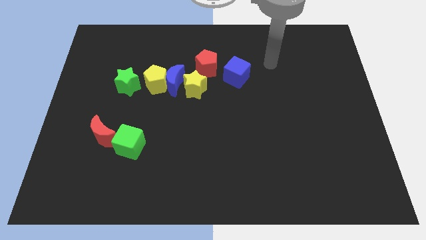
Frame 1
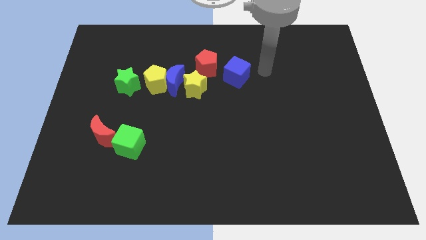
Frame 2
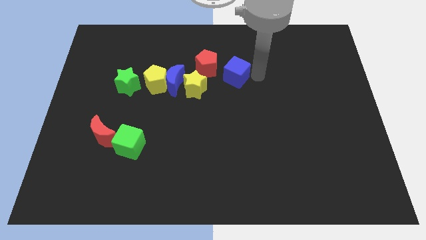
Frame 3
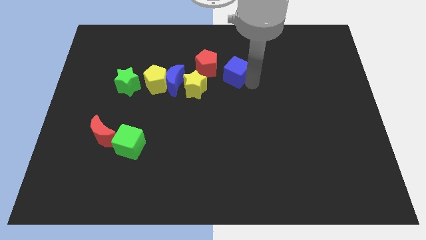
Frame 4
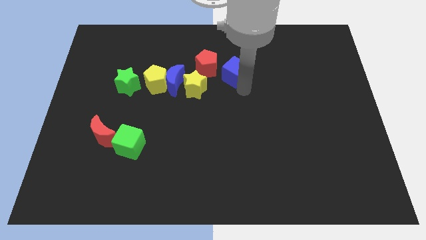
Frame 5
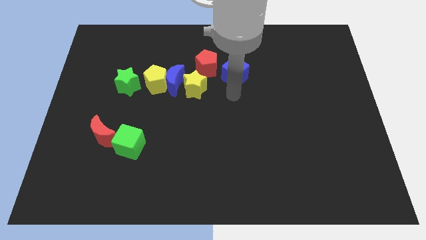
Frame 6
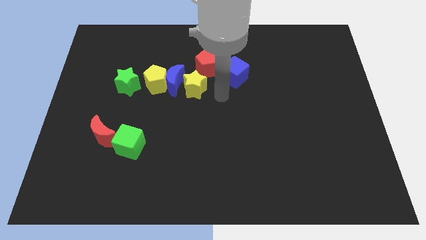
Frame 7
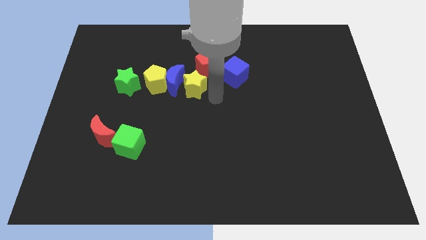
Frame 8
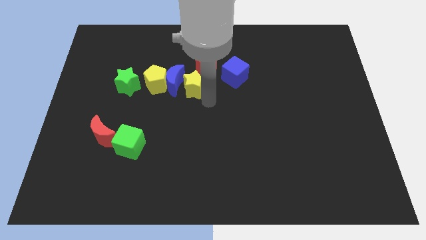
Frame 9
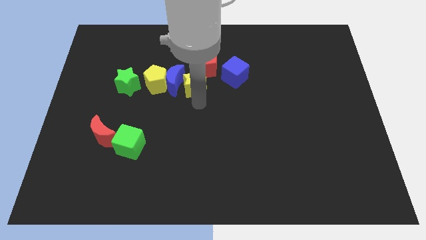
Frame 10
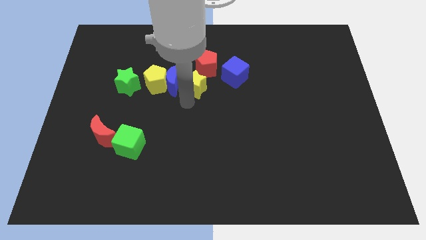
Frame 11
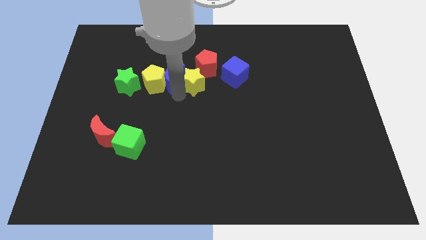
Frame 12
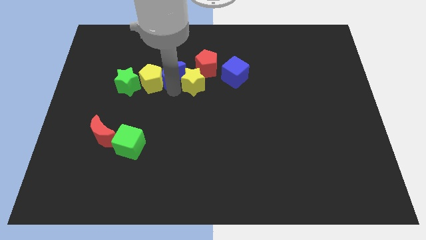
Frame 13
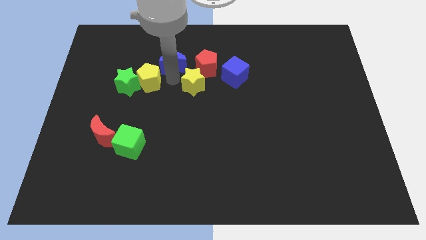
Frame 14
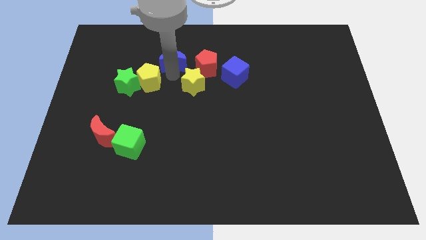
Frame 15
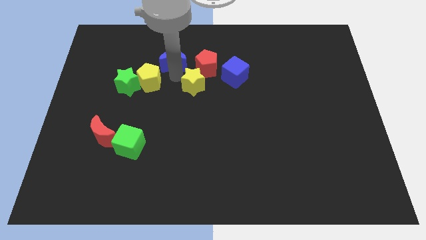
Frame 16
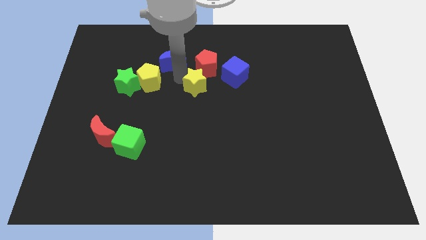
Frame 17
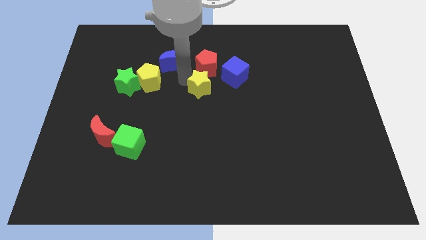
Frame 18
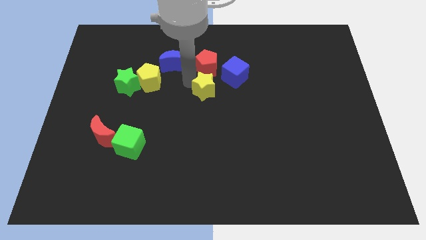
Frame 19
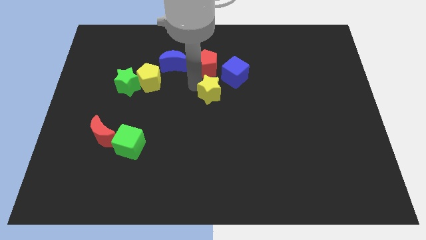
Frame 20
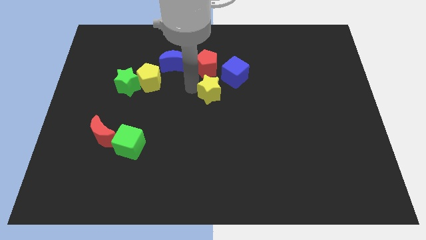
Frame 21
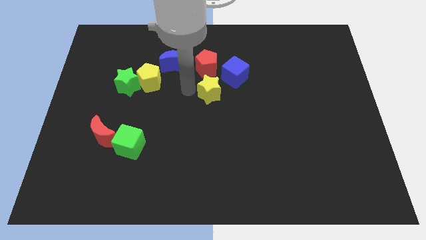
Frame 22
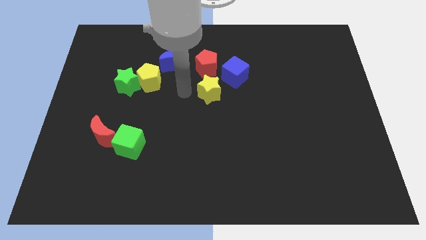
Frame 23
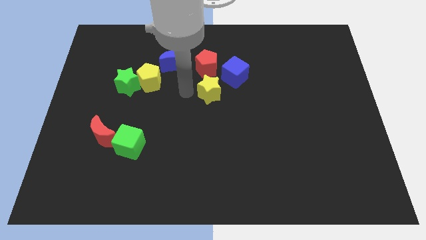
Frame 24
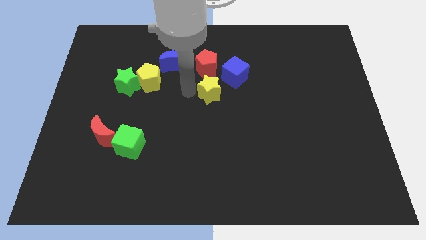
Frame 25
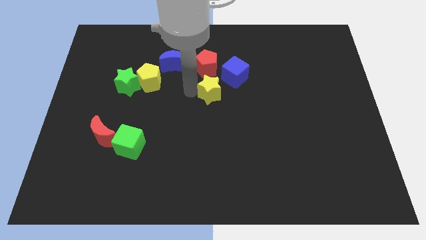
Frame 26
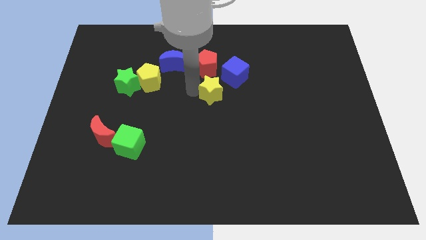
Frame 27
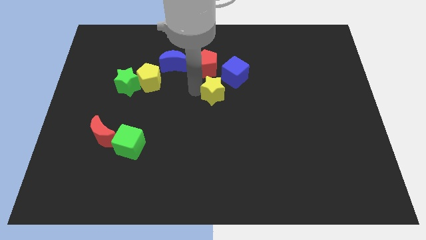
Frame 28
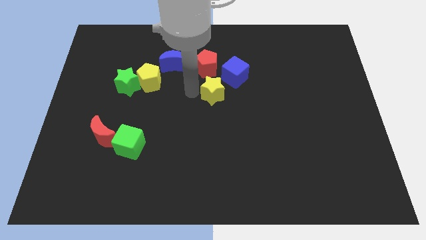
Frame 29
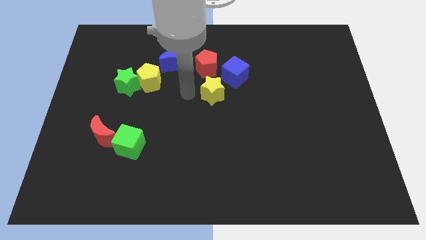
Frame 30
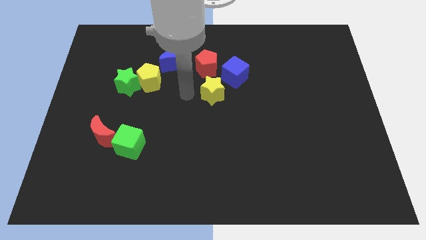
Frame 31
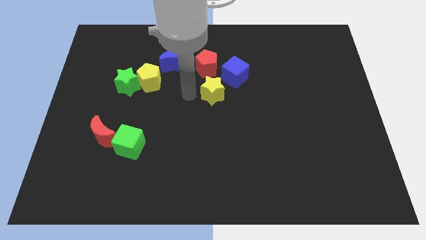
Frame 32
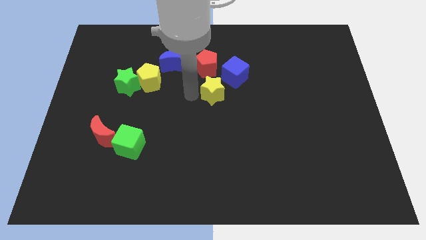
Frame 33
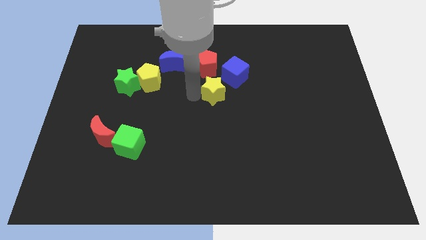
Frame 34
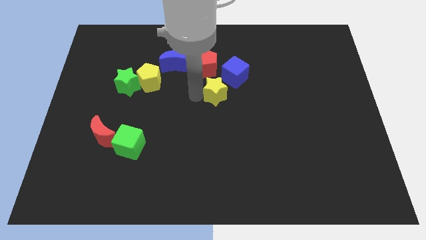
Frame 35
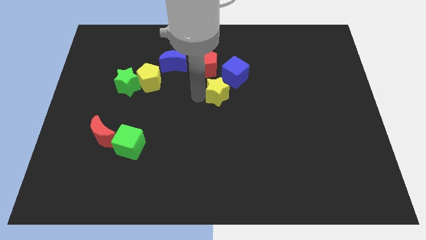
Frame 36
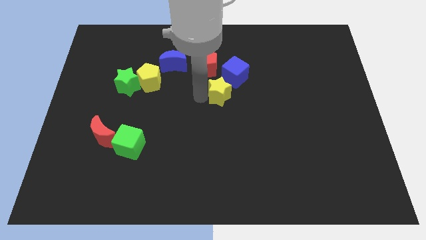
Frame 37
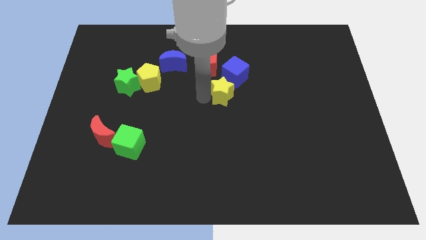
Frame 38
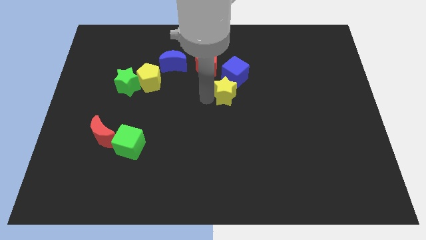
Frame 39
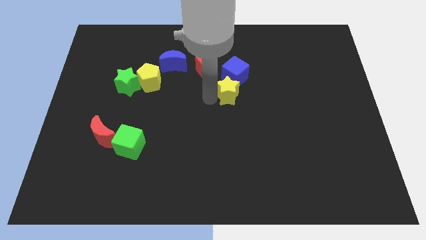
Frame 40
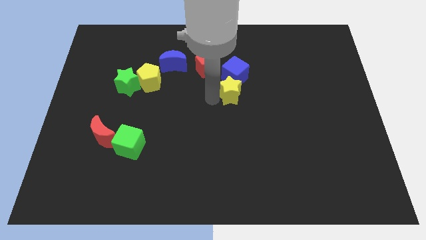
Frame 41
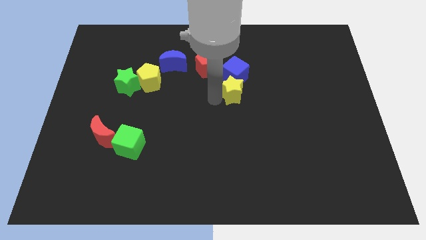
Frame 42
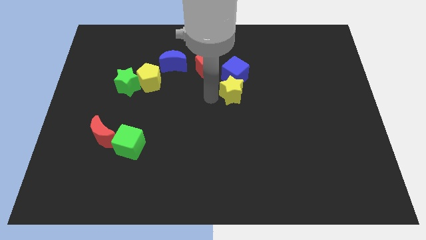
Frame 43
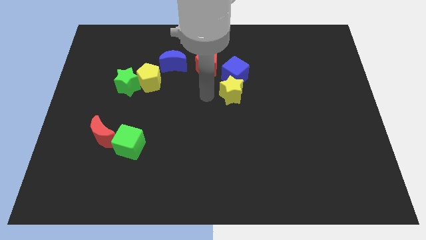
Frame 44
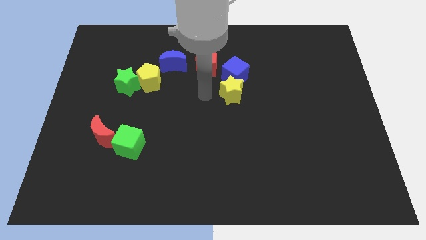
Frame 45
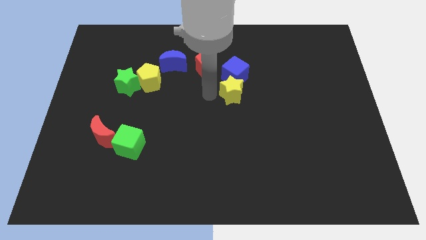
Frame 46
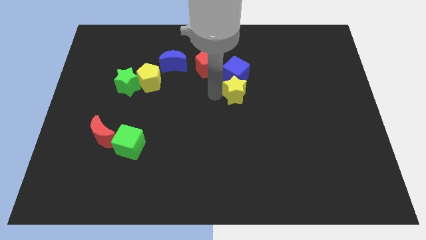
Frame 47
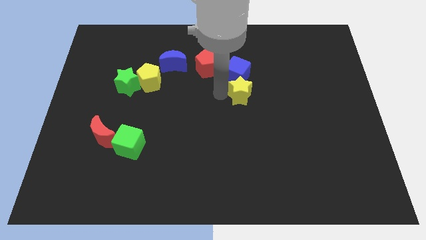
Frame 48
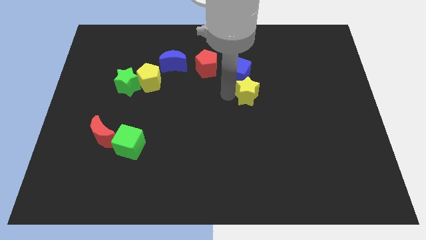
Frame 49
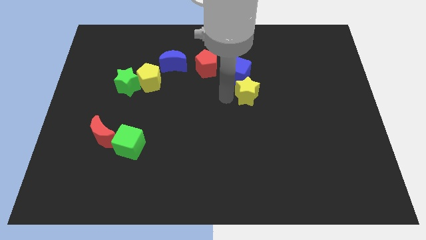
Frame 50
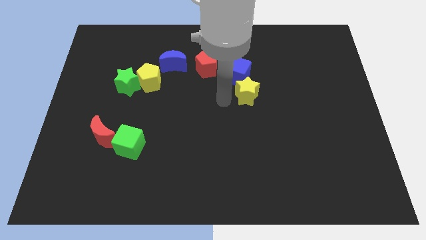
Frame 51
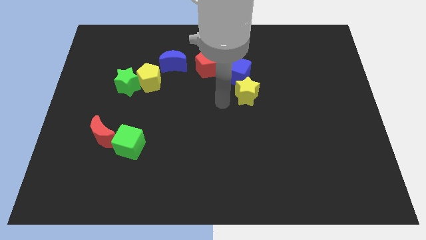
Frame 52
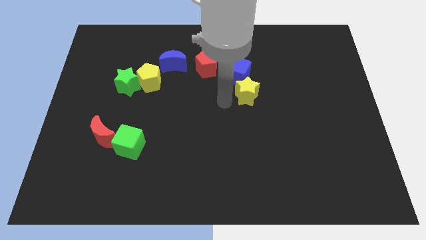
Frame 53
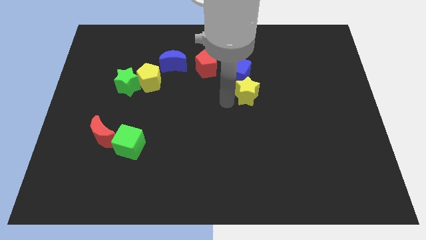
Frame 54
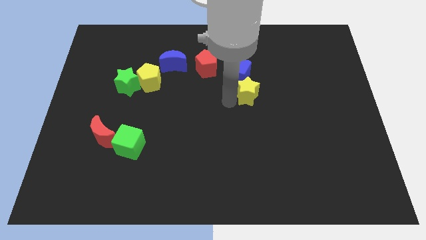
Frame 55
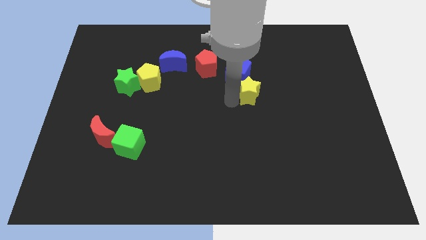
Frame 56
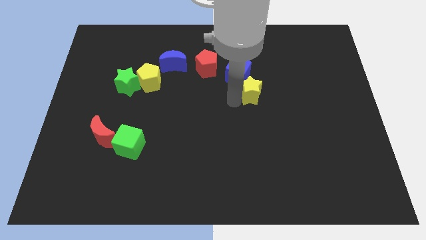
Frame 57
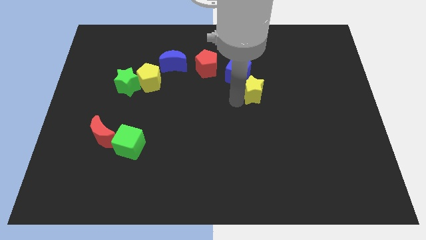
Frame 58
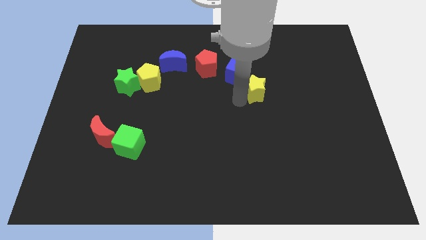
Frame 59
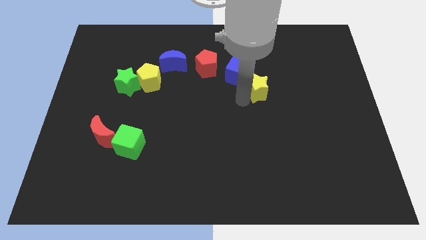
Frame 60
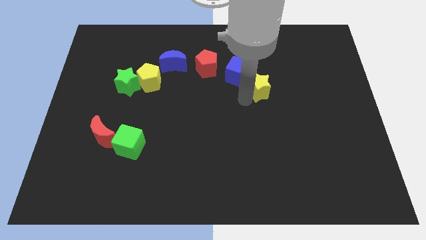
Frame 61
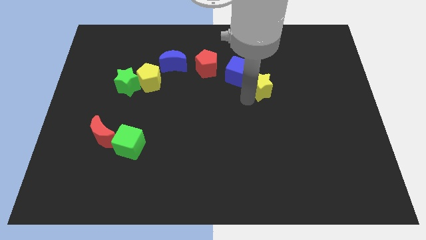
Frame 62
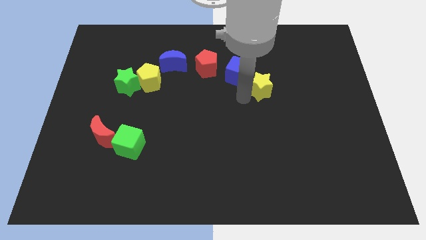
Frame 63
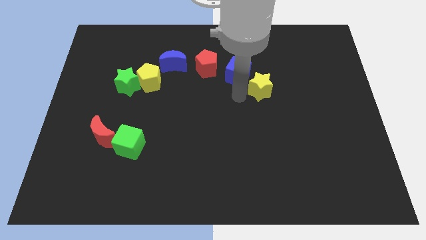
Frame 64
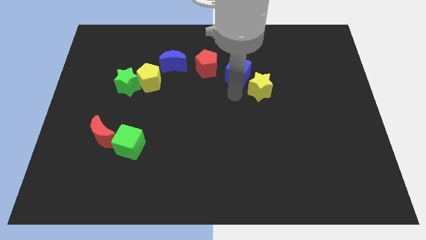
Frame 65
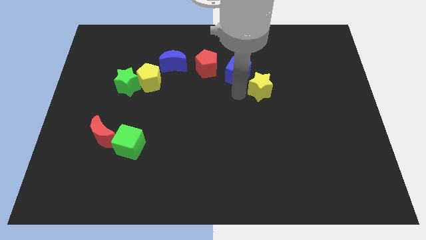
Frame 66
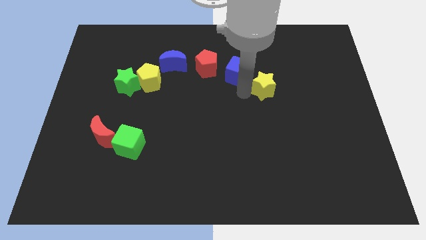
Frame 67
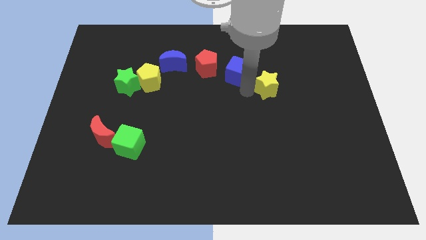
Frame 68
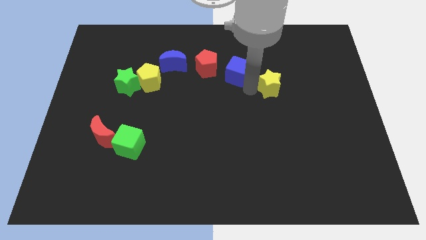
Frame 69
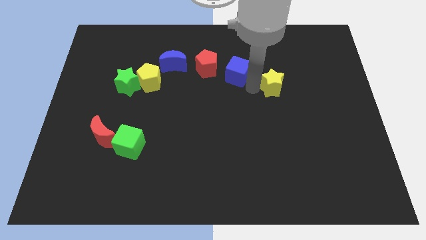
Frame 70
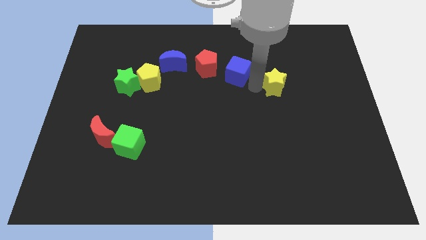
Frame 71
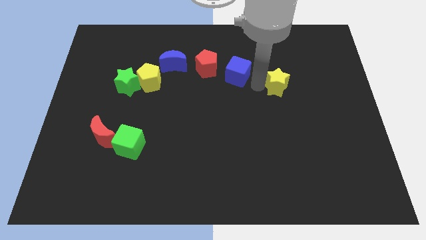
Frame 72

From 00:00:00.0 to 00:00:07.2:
move the yellow star to the right

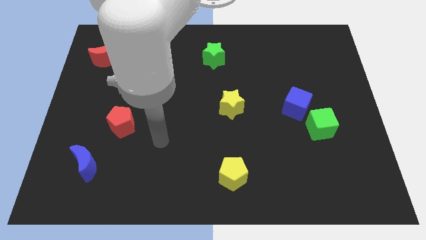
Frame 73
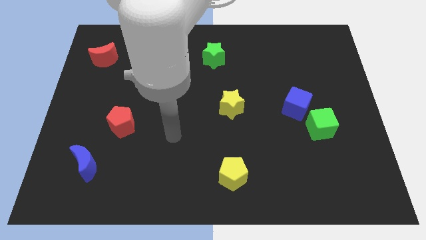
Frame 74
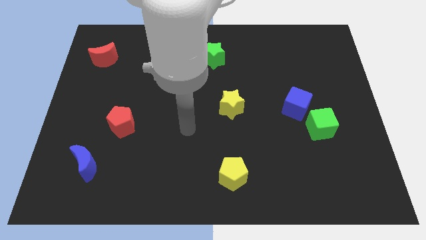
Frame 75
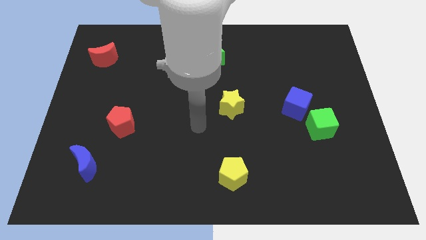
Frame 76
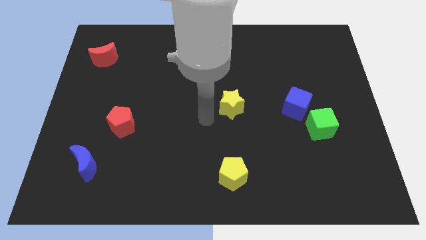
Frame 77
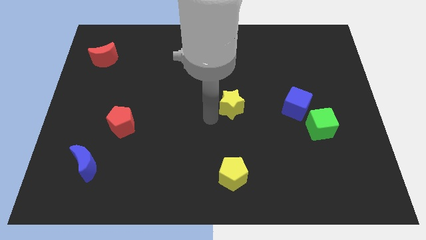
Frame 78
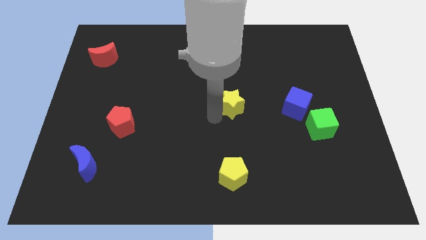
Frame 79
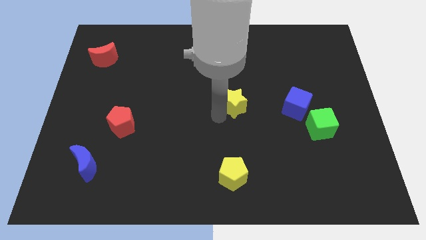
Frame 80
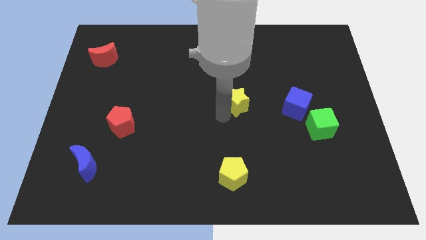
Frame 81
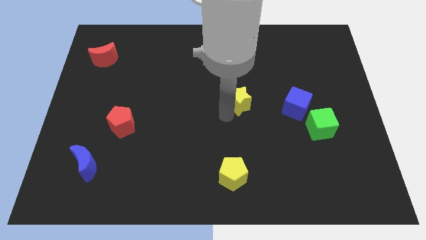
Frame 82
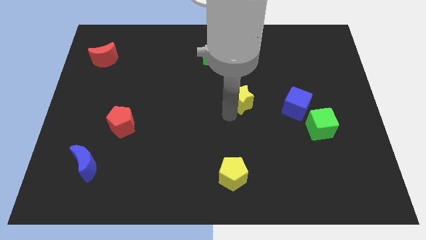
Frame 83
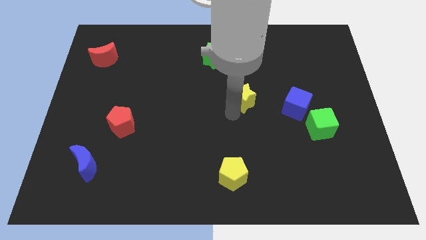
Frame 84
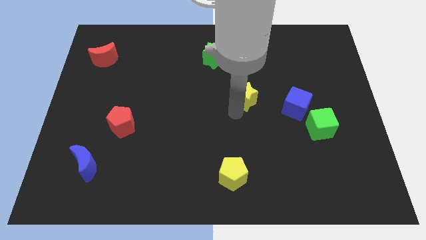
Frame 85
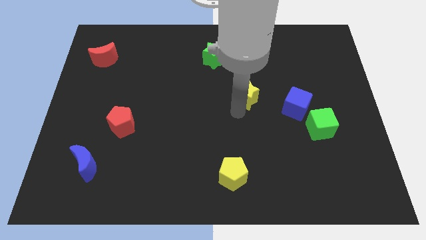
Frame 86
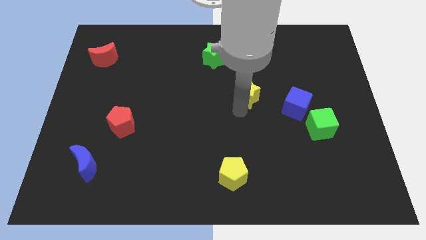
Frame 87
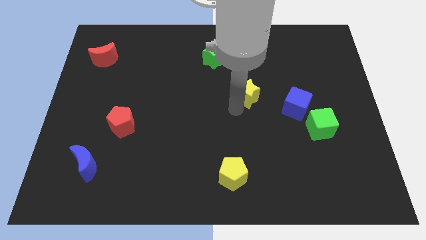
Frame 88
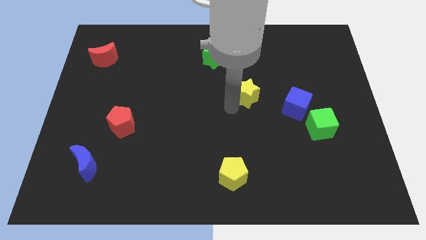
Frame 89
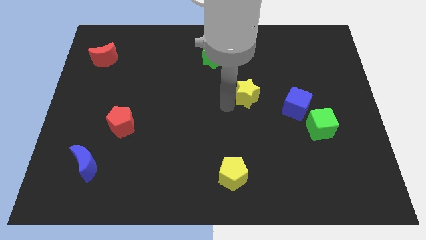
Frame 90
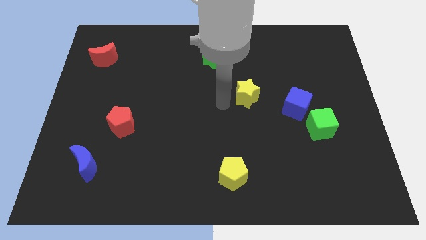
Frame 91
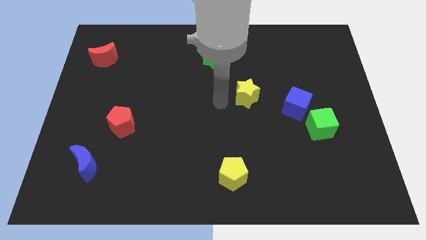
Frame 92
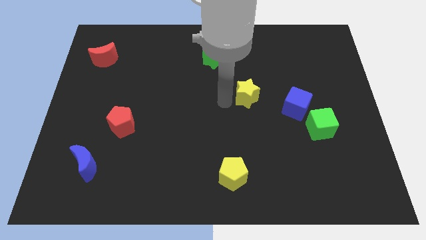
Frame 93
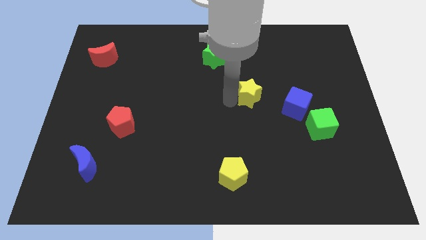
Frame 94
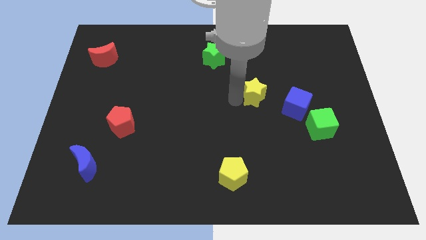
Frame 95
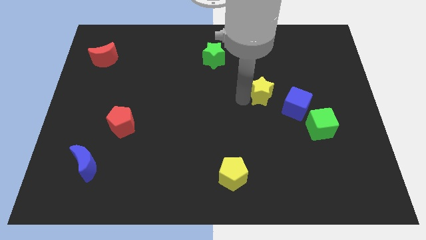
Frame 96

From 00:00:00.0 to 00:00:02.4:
push the yellow star a bit right
